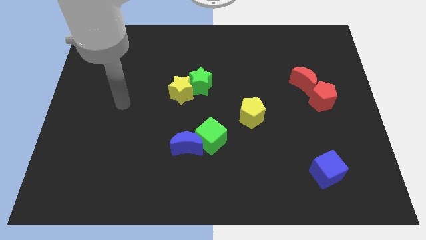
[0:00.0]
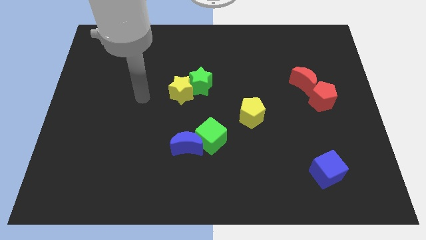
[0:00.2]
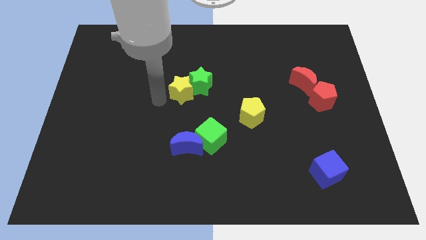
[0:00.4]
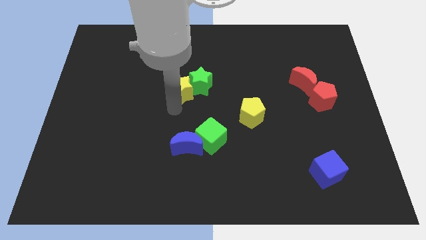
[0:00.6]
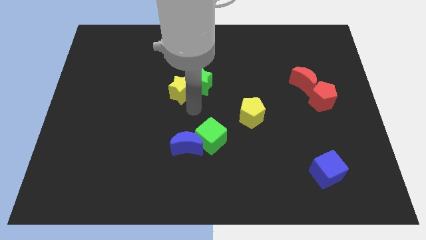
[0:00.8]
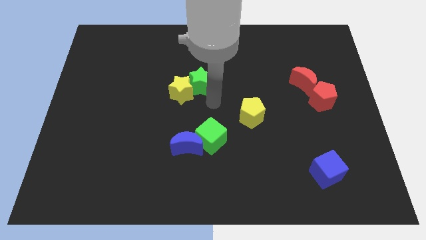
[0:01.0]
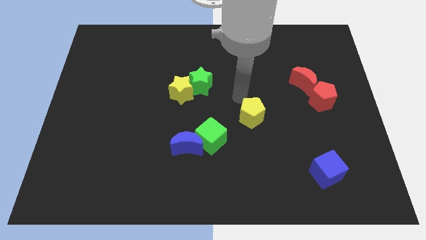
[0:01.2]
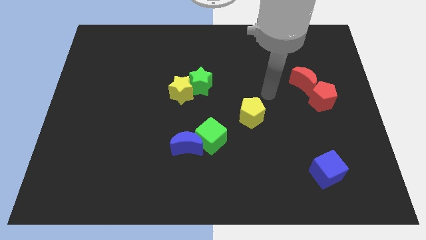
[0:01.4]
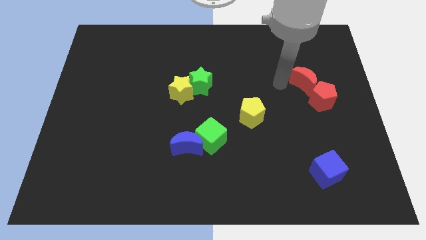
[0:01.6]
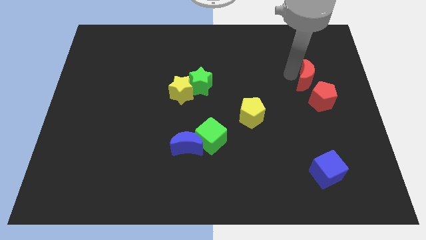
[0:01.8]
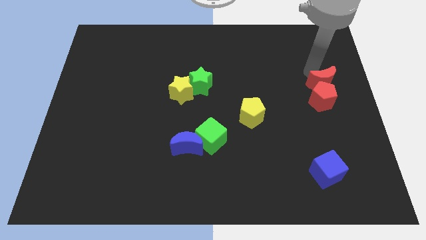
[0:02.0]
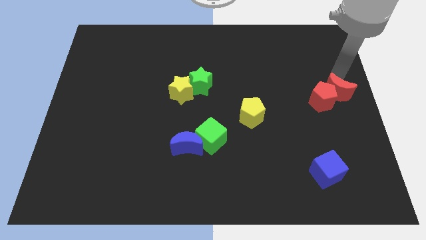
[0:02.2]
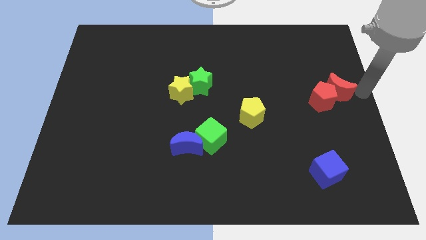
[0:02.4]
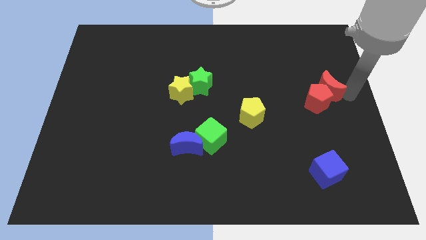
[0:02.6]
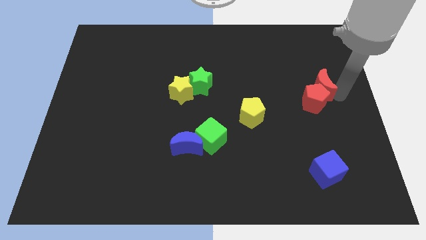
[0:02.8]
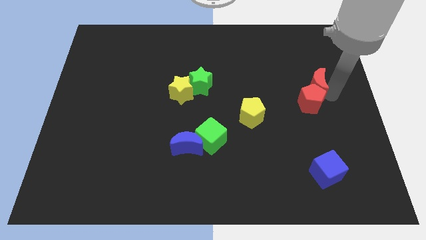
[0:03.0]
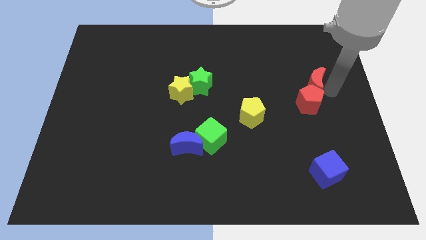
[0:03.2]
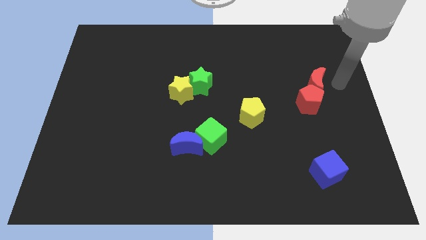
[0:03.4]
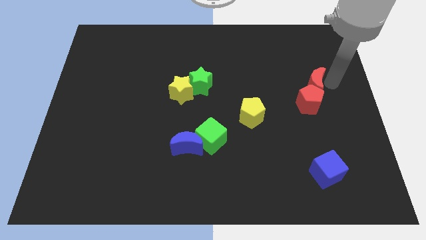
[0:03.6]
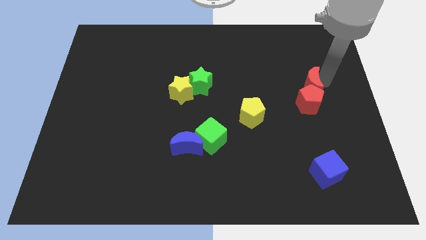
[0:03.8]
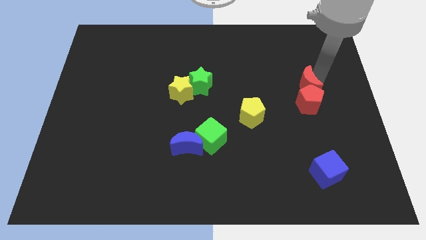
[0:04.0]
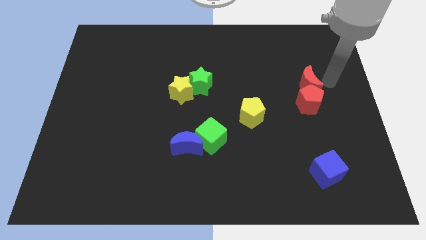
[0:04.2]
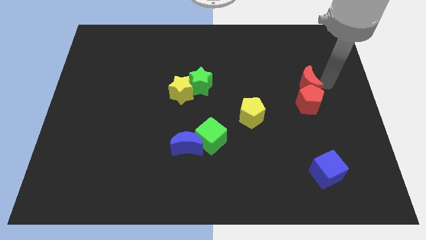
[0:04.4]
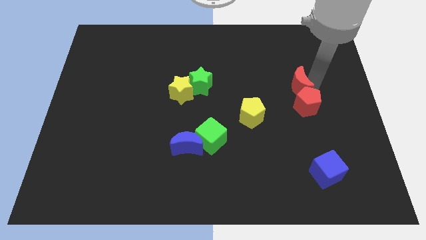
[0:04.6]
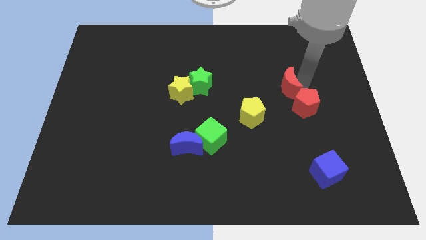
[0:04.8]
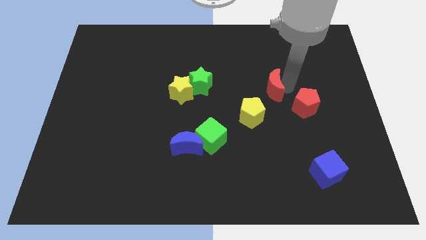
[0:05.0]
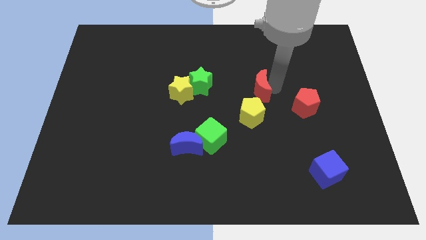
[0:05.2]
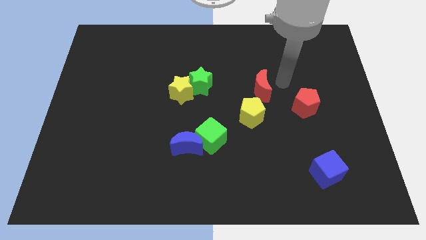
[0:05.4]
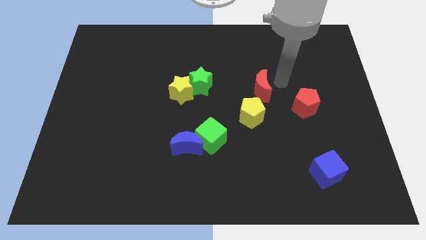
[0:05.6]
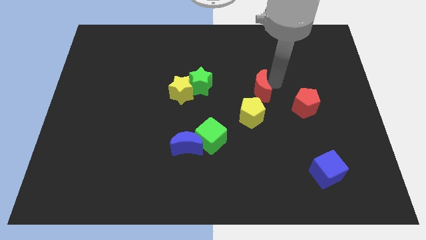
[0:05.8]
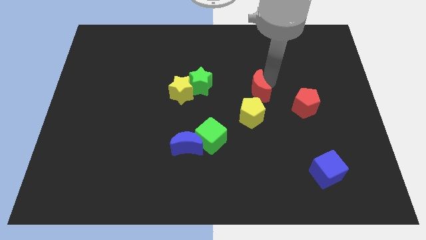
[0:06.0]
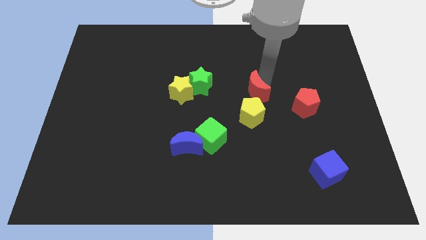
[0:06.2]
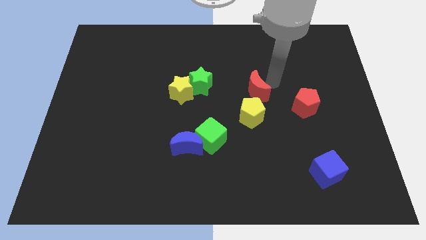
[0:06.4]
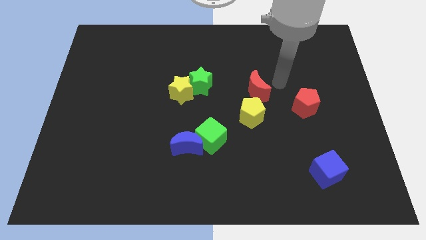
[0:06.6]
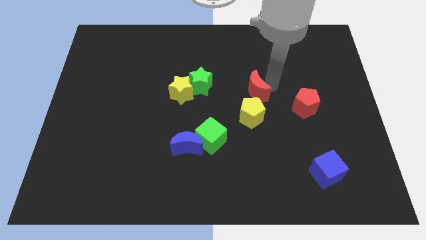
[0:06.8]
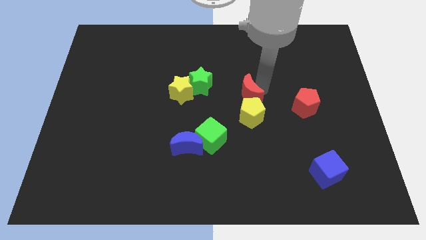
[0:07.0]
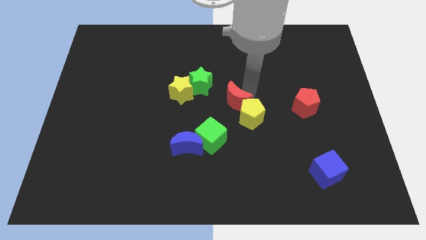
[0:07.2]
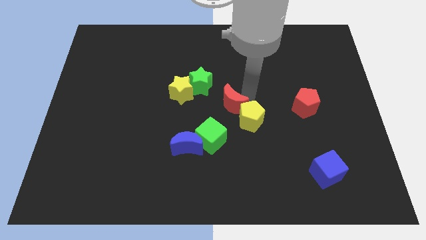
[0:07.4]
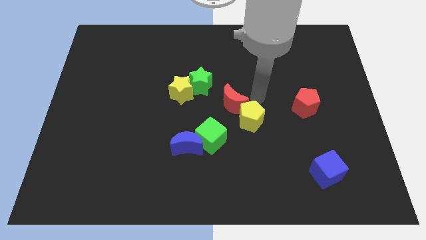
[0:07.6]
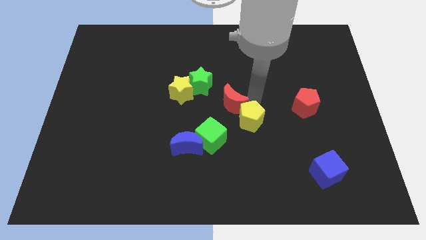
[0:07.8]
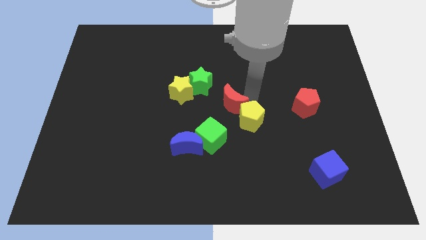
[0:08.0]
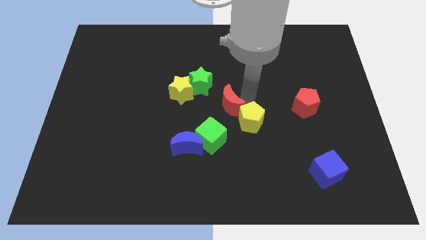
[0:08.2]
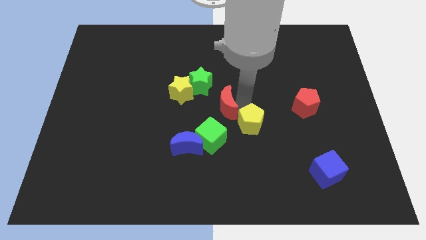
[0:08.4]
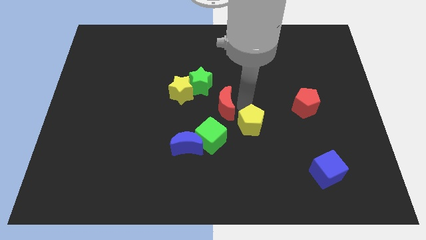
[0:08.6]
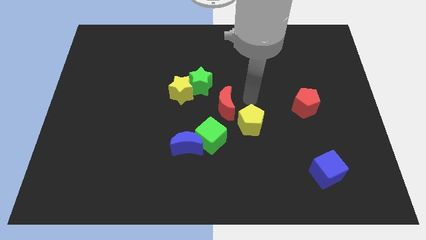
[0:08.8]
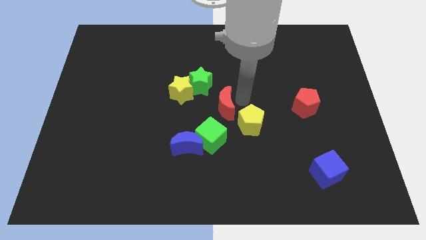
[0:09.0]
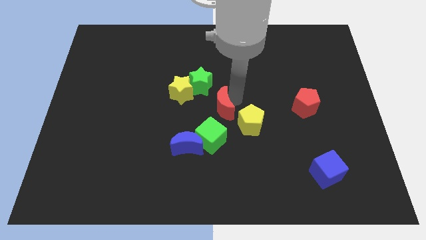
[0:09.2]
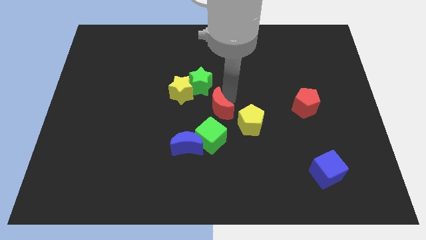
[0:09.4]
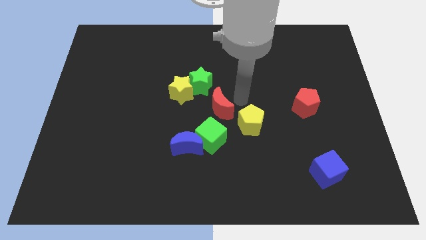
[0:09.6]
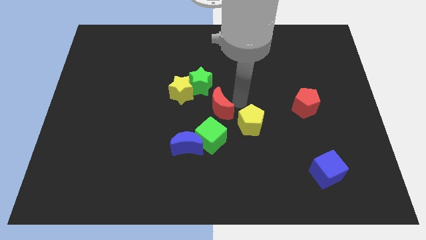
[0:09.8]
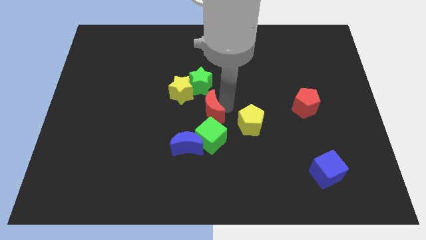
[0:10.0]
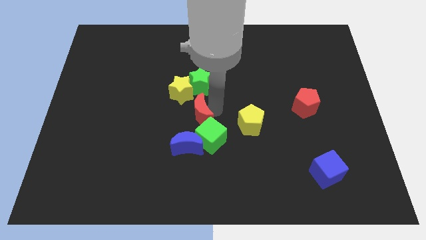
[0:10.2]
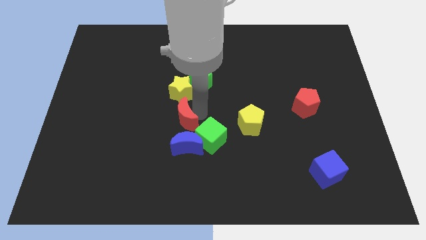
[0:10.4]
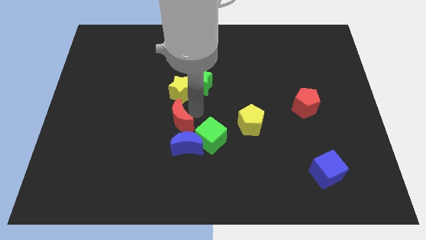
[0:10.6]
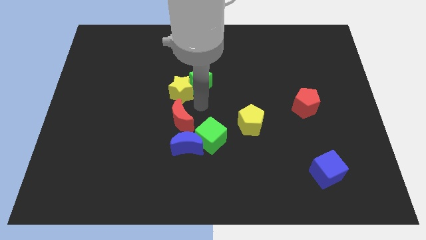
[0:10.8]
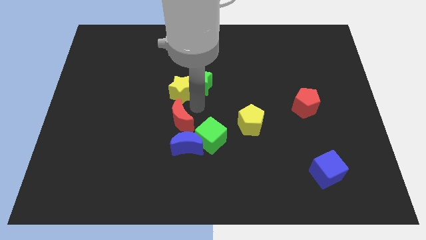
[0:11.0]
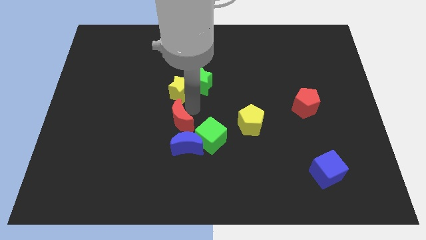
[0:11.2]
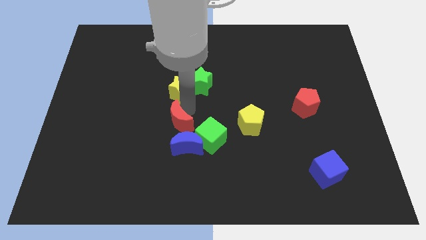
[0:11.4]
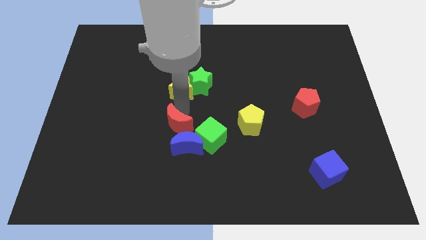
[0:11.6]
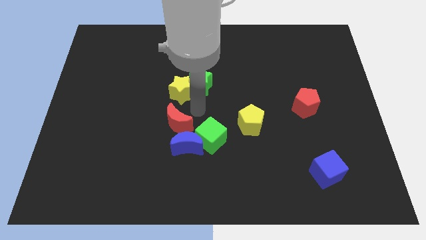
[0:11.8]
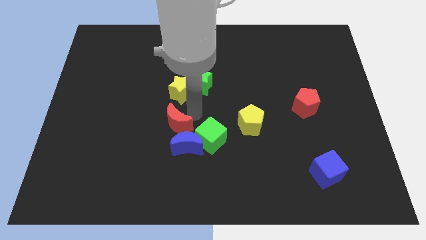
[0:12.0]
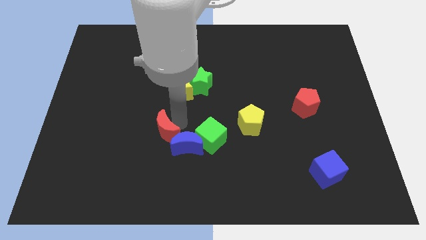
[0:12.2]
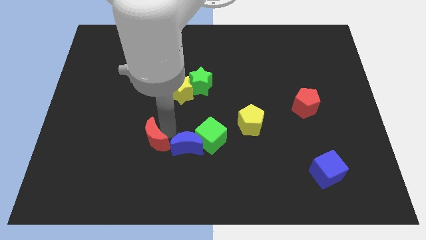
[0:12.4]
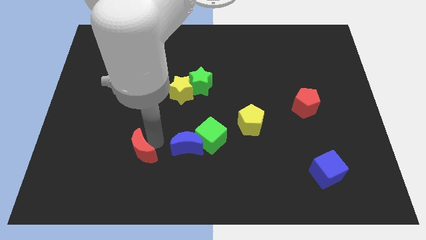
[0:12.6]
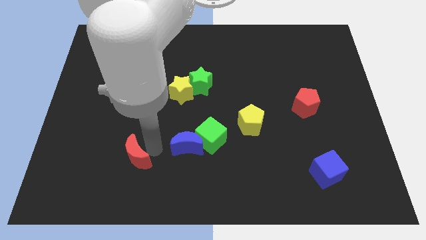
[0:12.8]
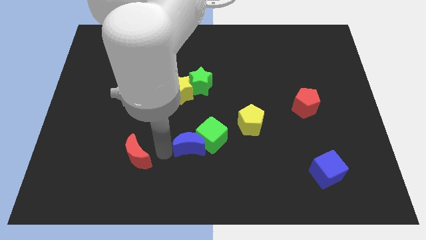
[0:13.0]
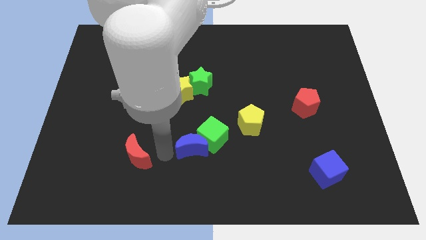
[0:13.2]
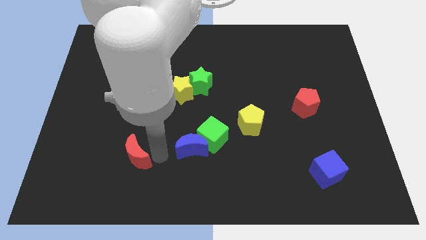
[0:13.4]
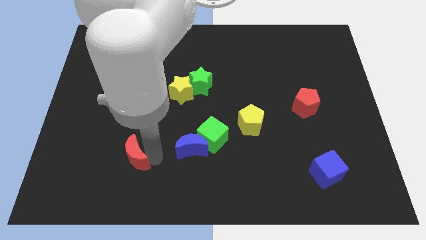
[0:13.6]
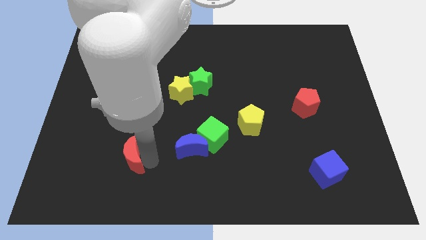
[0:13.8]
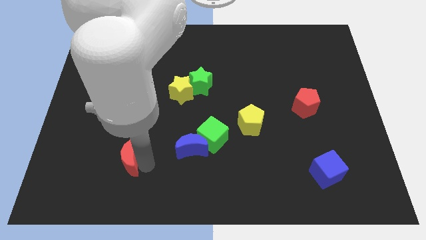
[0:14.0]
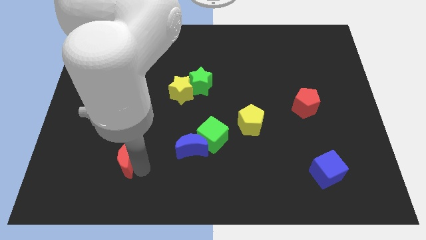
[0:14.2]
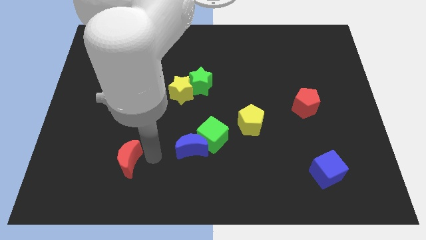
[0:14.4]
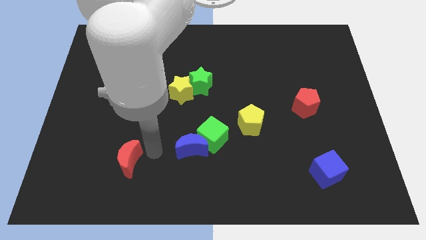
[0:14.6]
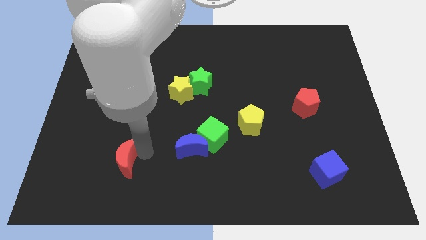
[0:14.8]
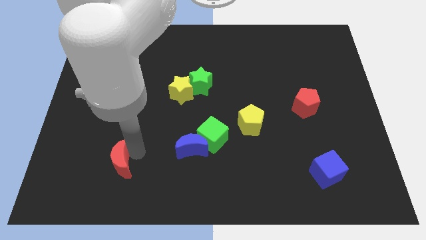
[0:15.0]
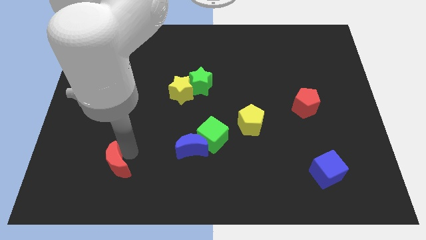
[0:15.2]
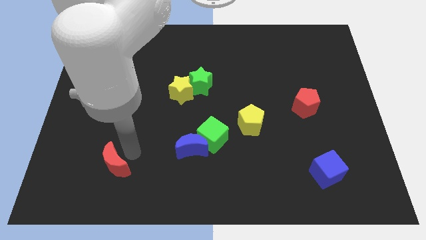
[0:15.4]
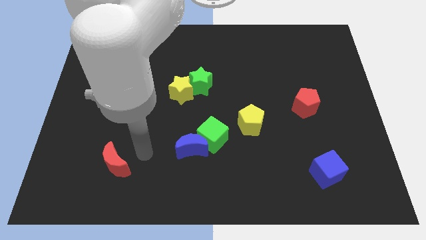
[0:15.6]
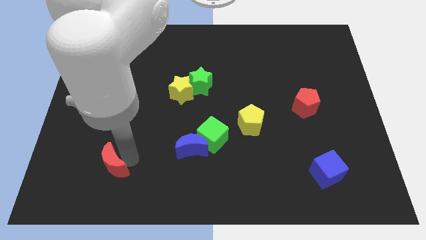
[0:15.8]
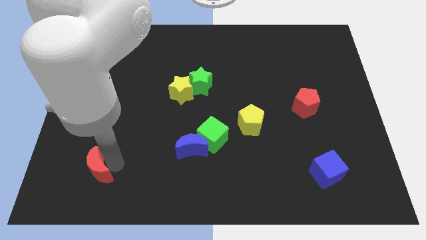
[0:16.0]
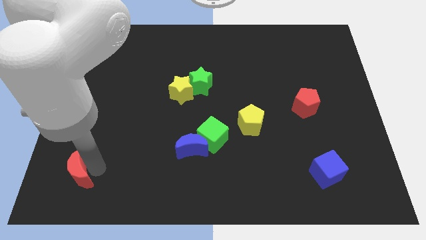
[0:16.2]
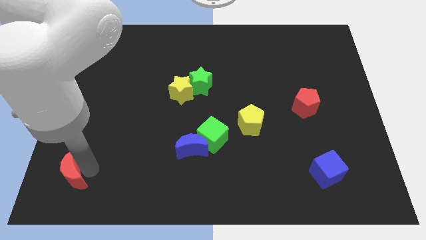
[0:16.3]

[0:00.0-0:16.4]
put the red moon to the bottom left corner
